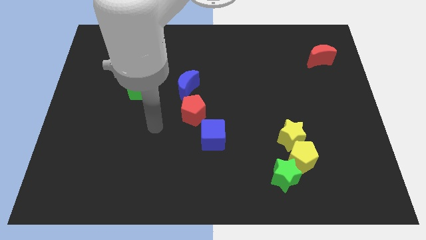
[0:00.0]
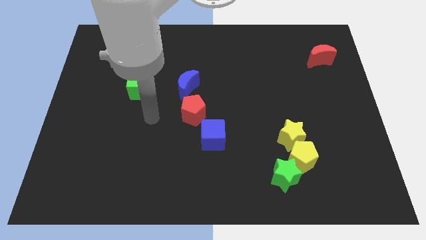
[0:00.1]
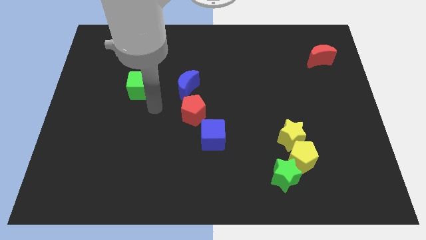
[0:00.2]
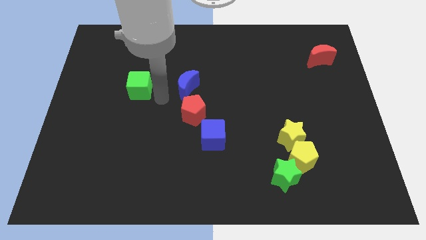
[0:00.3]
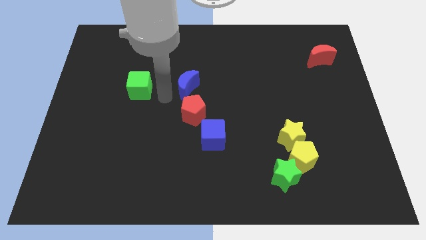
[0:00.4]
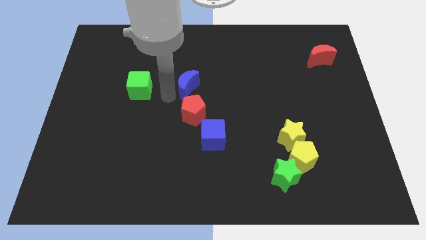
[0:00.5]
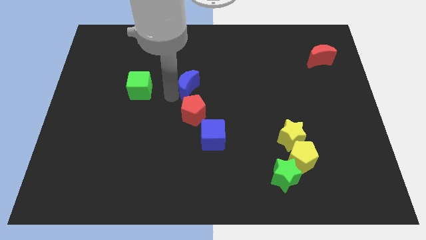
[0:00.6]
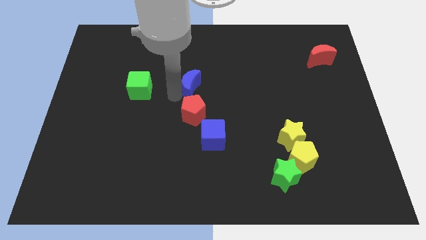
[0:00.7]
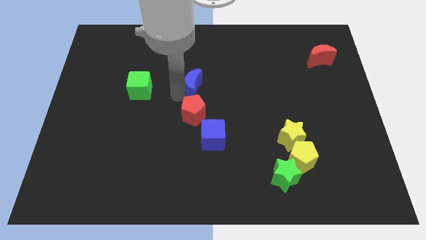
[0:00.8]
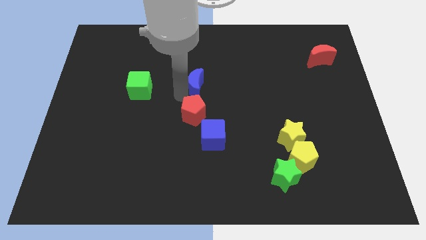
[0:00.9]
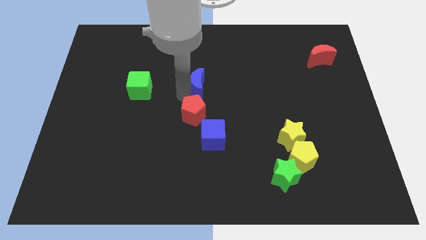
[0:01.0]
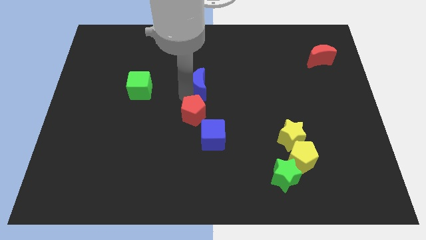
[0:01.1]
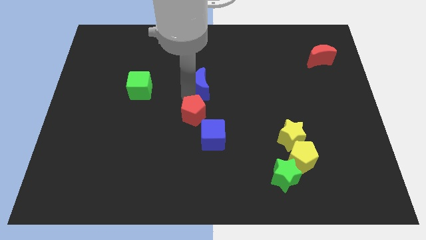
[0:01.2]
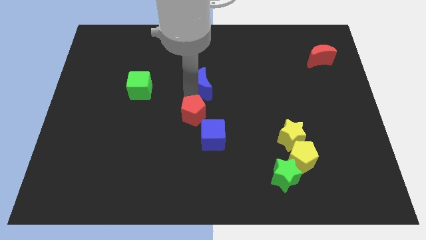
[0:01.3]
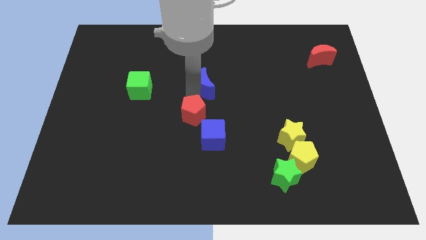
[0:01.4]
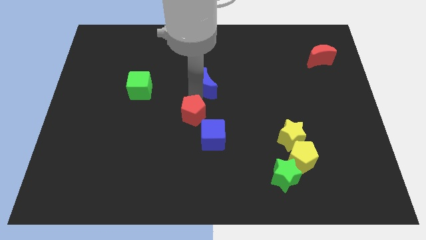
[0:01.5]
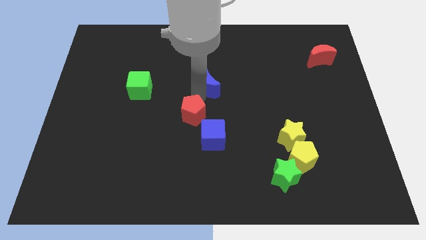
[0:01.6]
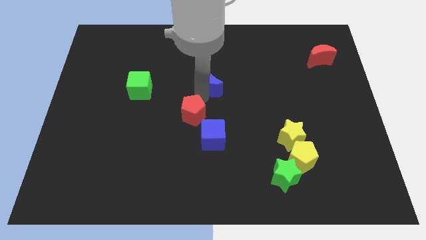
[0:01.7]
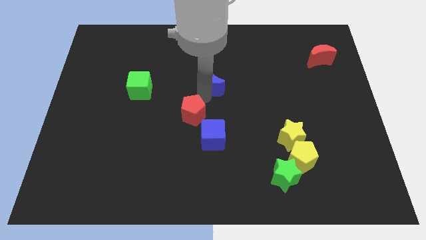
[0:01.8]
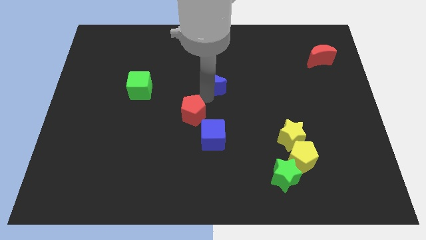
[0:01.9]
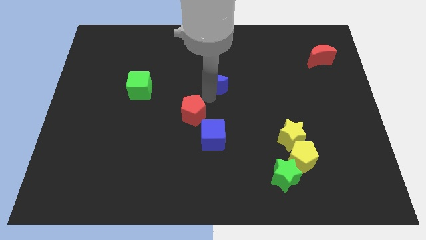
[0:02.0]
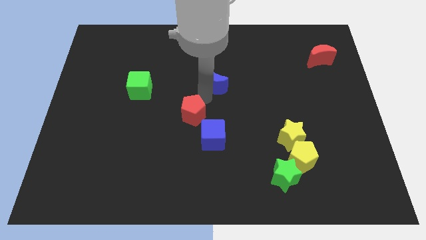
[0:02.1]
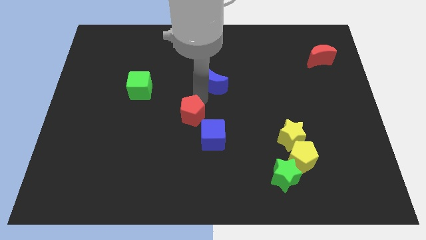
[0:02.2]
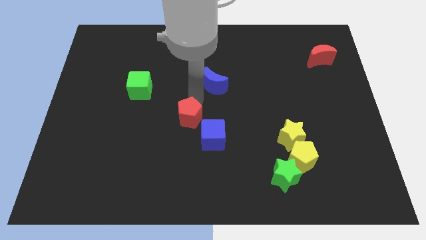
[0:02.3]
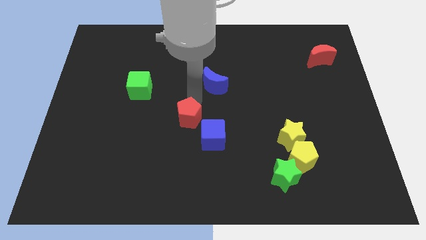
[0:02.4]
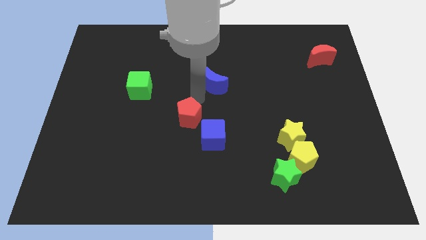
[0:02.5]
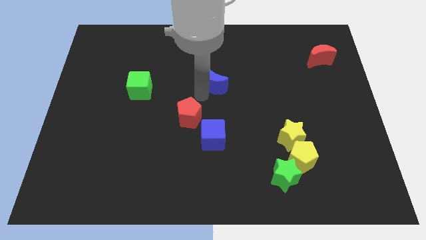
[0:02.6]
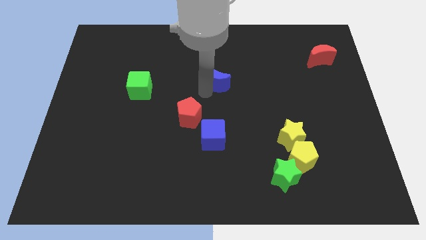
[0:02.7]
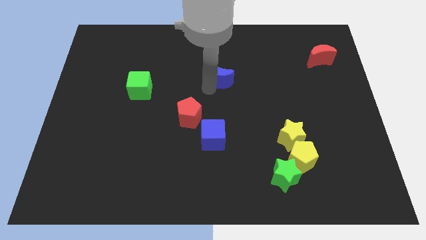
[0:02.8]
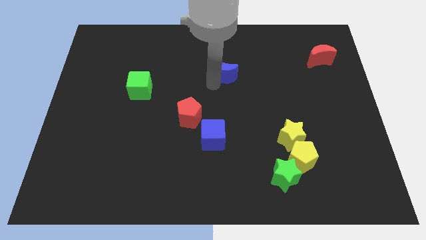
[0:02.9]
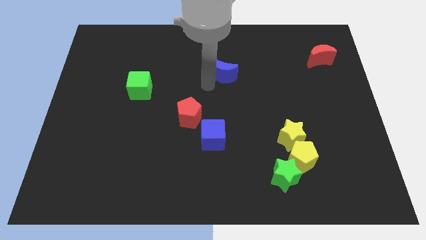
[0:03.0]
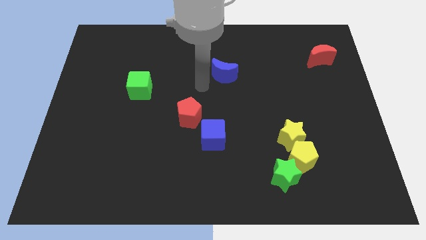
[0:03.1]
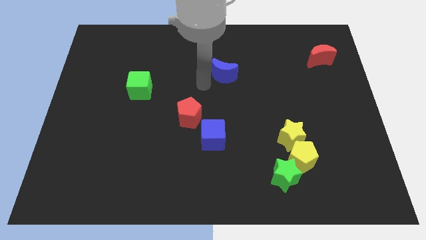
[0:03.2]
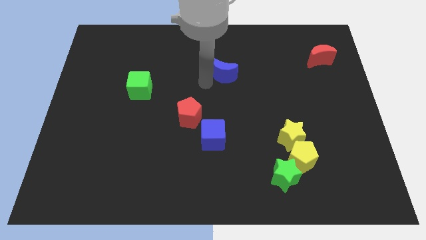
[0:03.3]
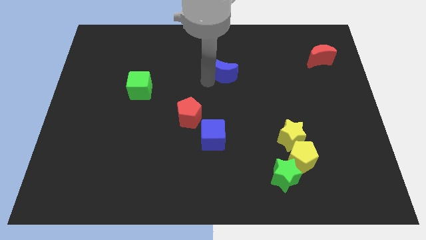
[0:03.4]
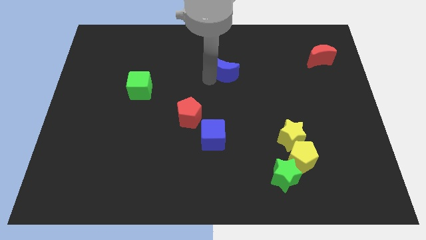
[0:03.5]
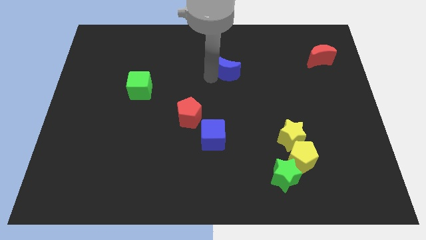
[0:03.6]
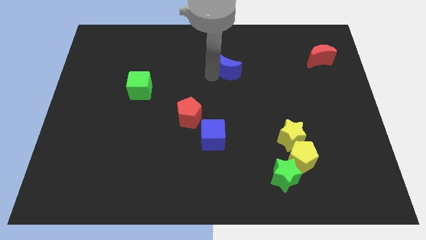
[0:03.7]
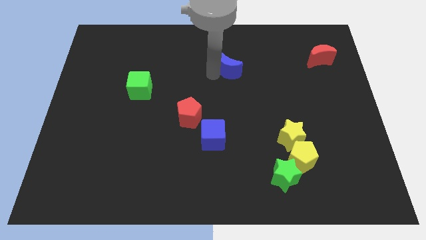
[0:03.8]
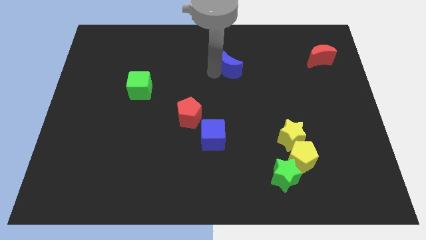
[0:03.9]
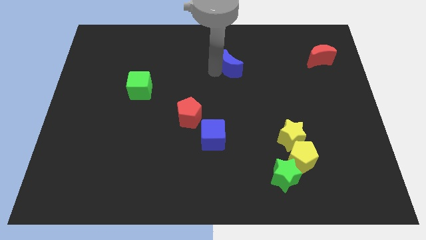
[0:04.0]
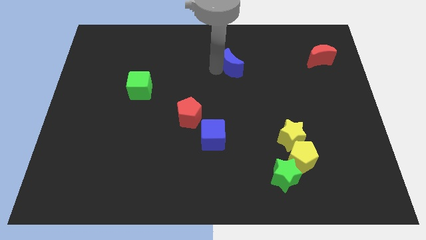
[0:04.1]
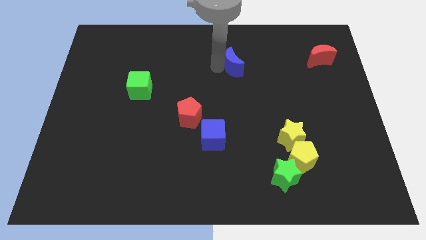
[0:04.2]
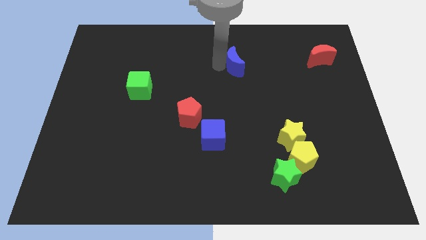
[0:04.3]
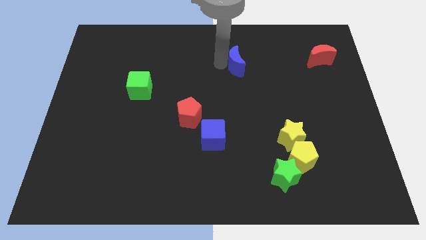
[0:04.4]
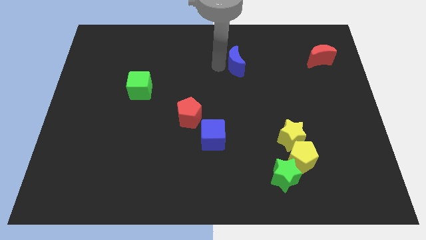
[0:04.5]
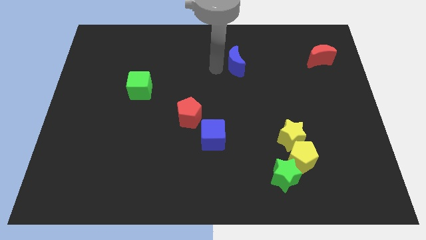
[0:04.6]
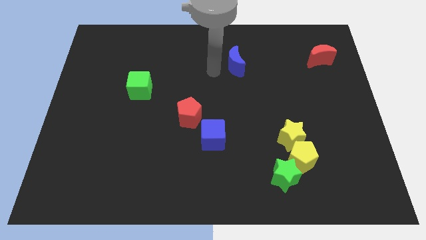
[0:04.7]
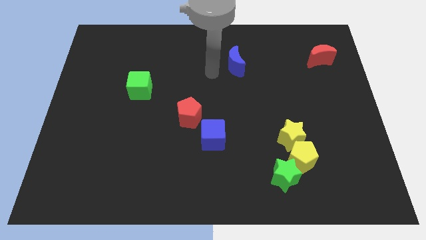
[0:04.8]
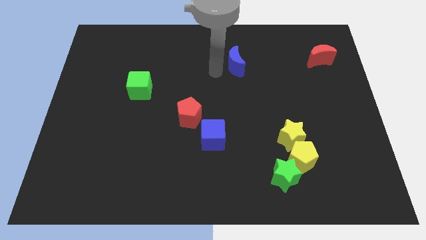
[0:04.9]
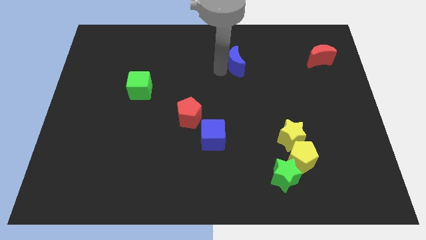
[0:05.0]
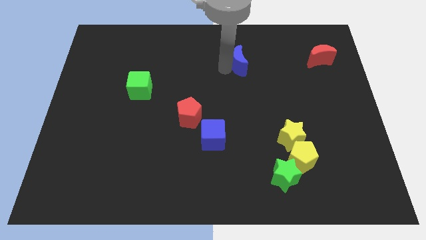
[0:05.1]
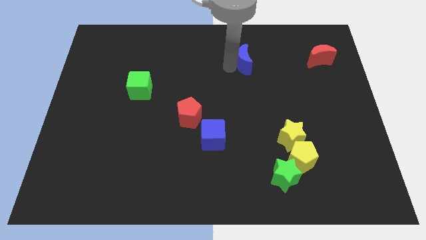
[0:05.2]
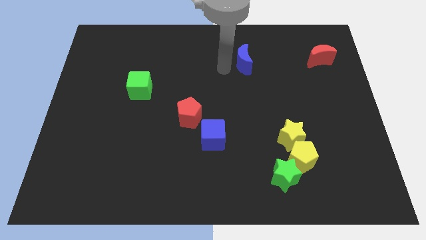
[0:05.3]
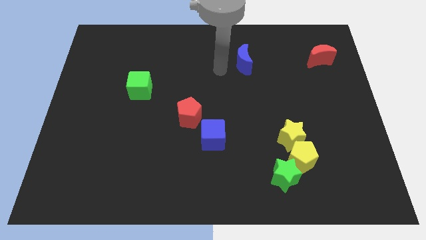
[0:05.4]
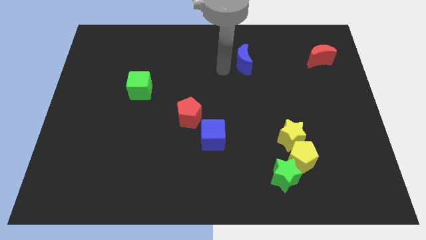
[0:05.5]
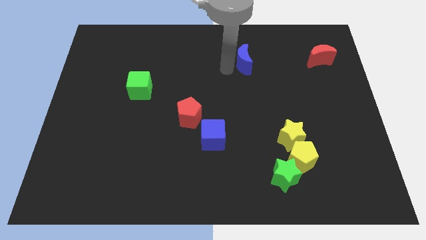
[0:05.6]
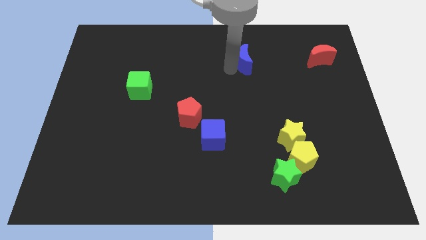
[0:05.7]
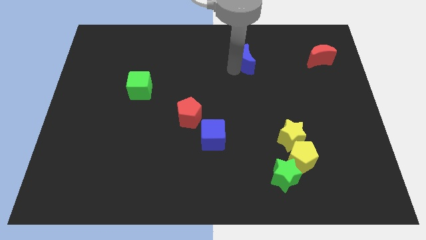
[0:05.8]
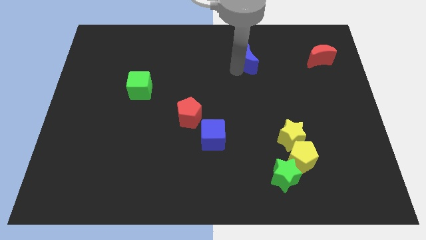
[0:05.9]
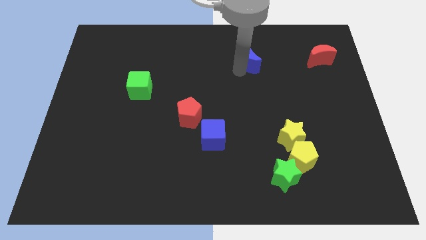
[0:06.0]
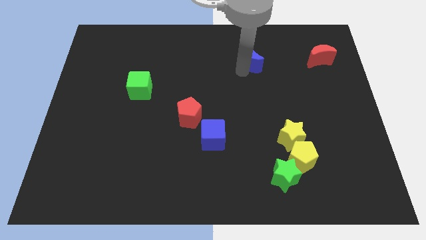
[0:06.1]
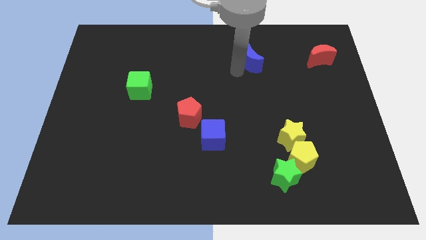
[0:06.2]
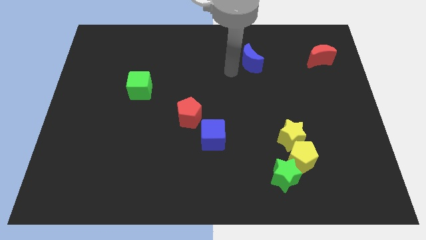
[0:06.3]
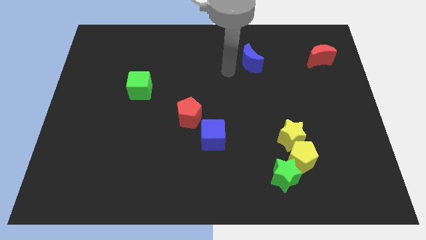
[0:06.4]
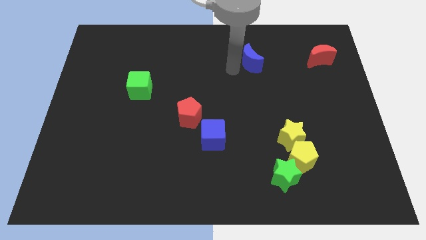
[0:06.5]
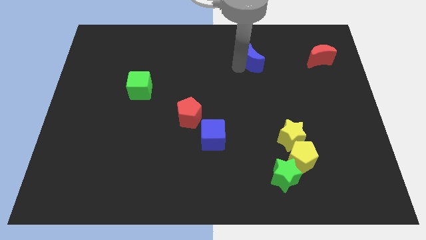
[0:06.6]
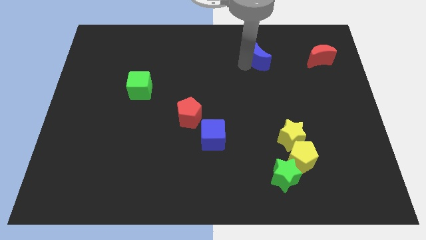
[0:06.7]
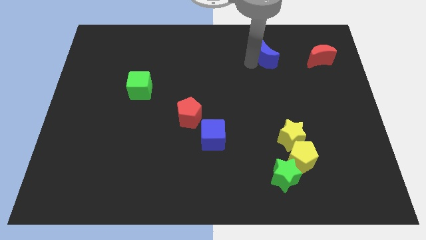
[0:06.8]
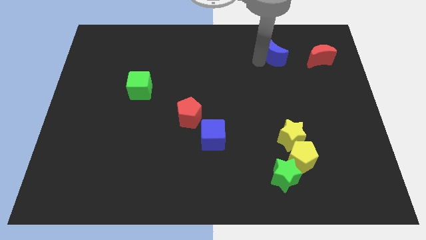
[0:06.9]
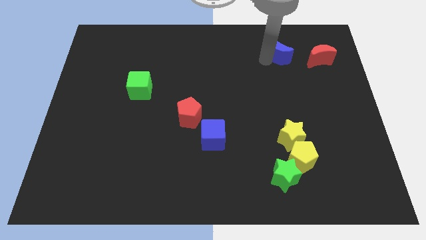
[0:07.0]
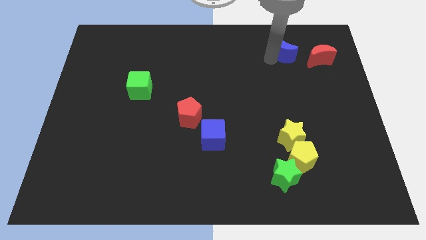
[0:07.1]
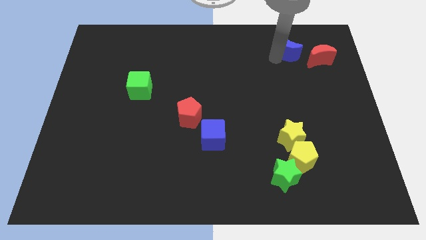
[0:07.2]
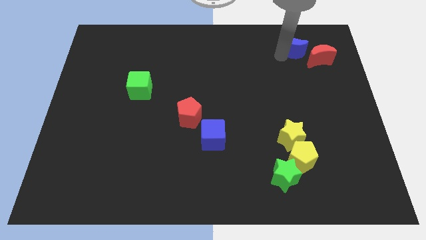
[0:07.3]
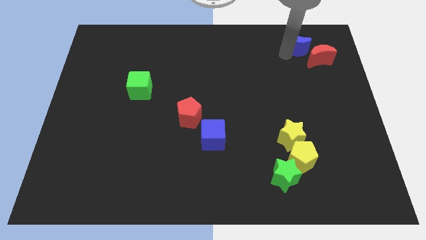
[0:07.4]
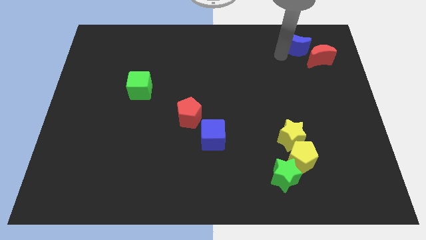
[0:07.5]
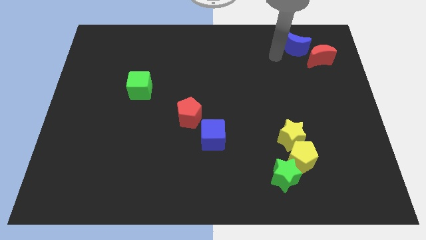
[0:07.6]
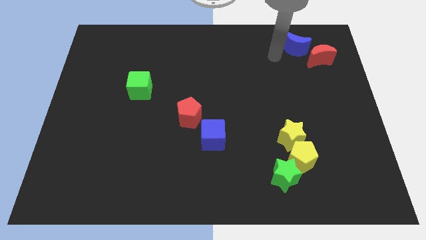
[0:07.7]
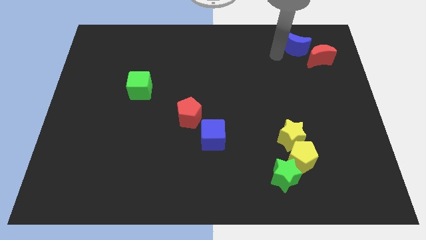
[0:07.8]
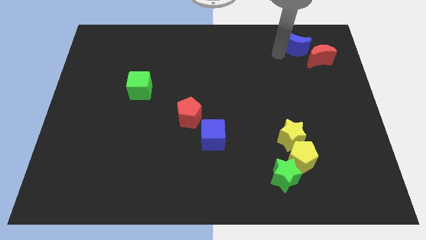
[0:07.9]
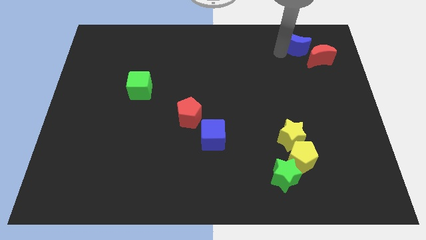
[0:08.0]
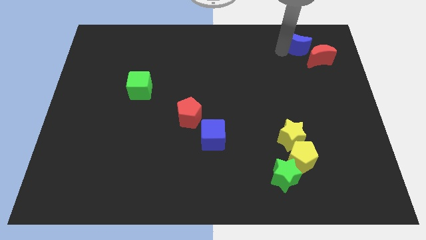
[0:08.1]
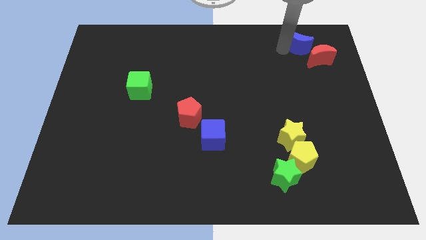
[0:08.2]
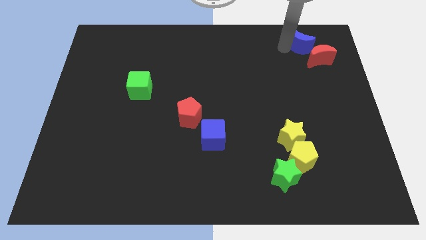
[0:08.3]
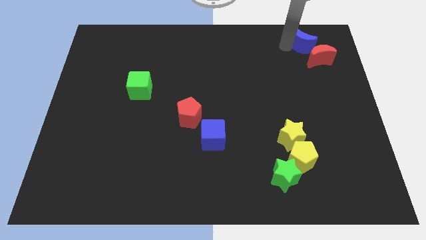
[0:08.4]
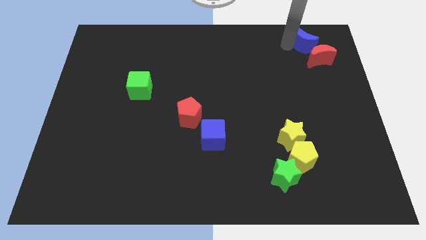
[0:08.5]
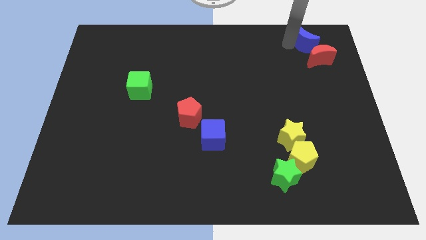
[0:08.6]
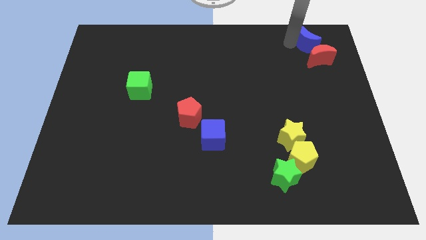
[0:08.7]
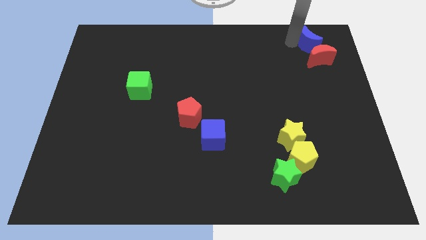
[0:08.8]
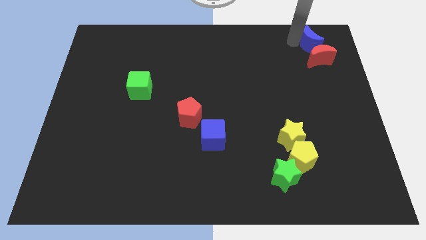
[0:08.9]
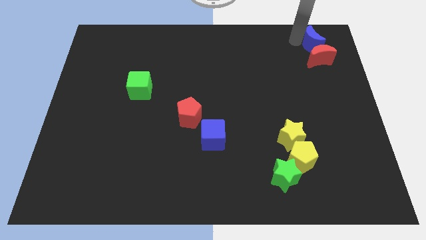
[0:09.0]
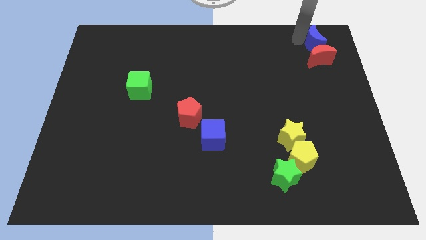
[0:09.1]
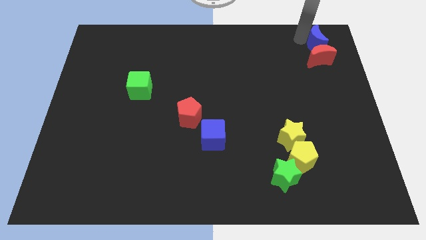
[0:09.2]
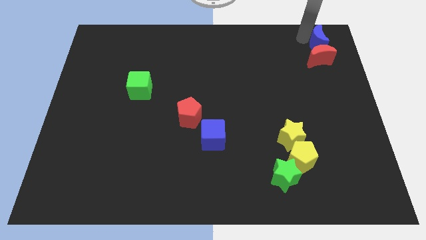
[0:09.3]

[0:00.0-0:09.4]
push the blue moon to the top right of the board
